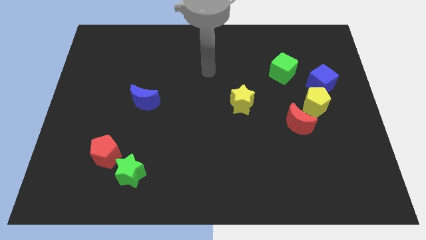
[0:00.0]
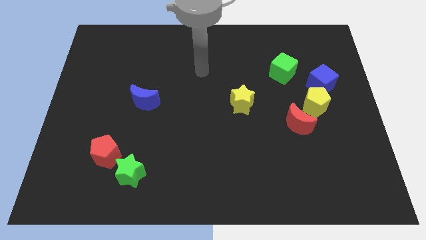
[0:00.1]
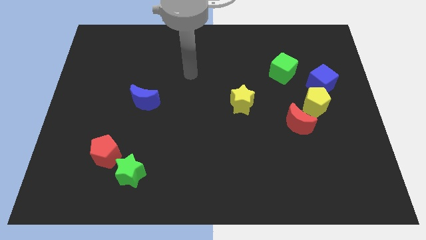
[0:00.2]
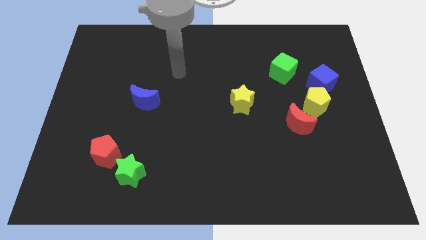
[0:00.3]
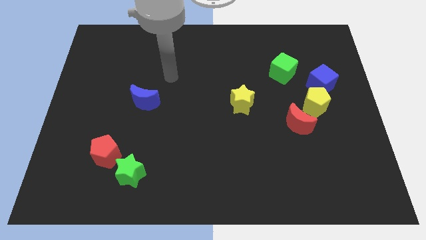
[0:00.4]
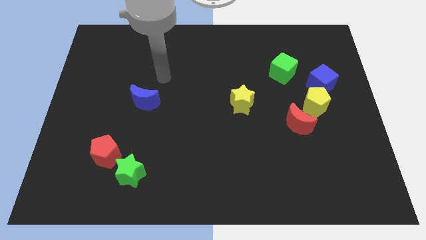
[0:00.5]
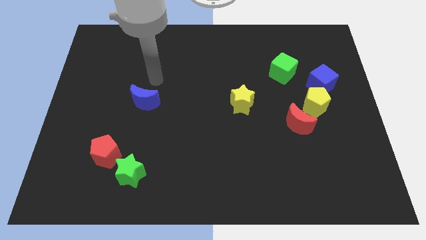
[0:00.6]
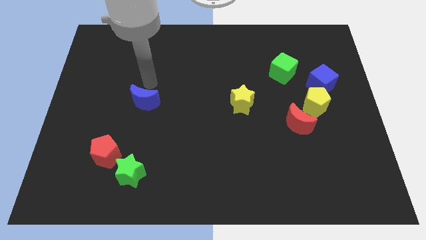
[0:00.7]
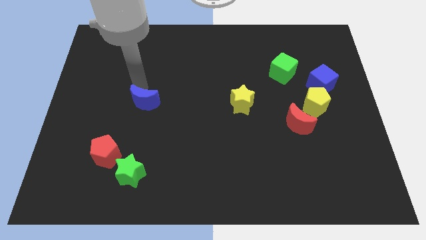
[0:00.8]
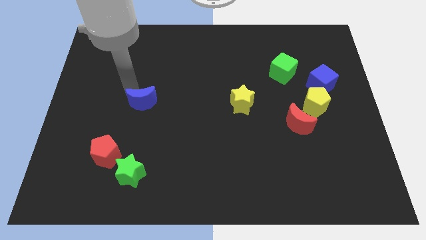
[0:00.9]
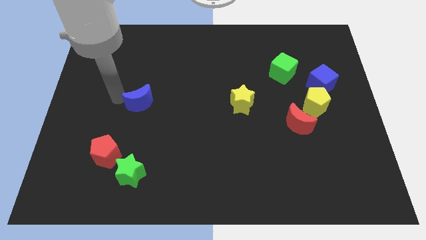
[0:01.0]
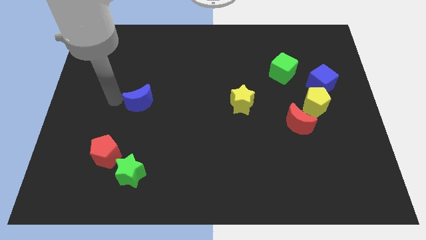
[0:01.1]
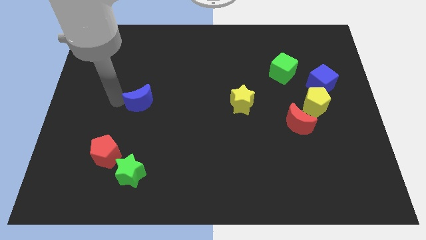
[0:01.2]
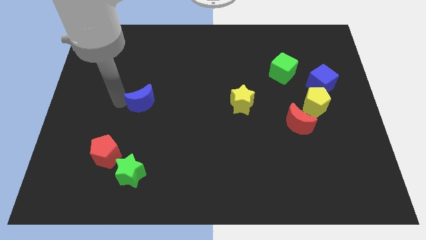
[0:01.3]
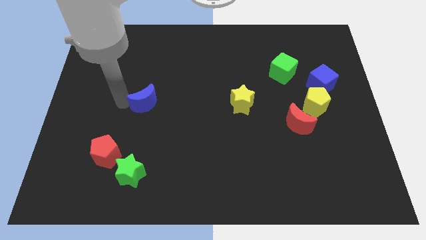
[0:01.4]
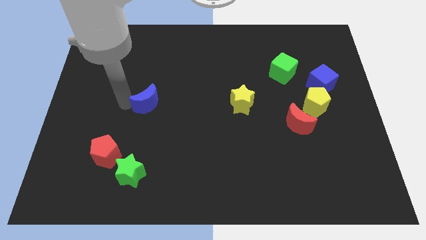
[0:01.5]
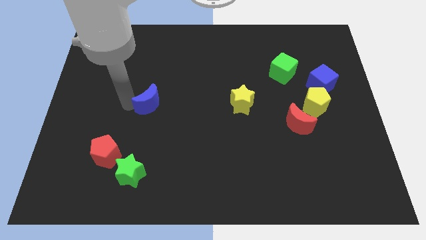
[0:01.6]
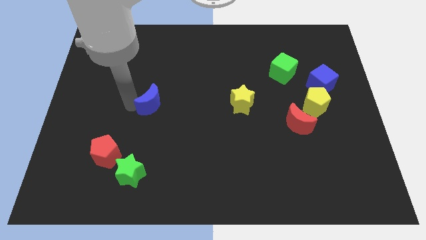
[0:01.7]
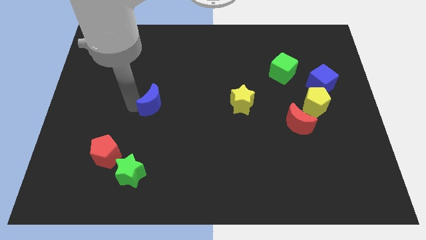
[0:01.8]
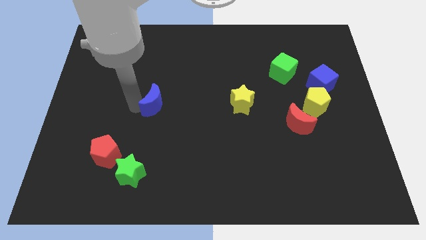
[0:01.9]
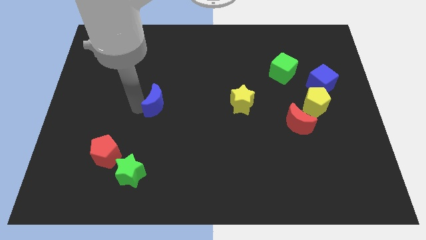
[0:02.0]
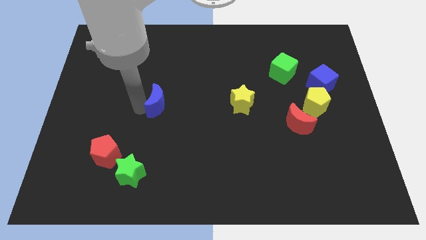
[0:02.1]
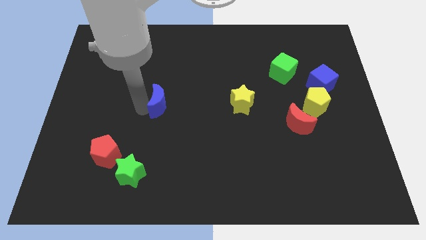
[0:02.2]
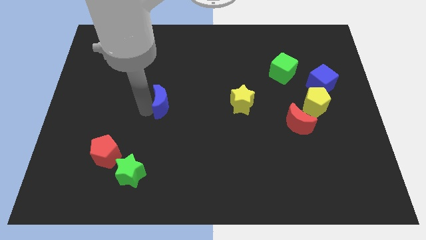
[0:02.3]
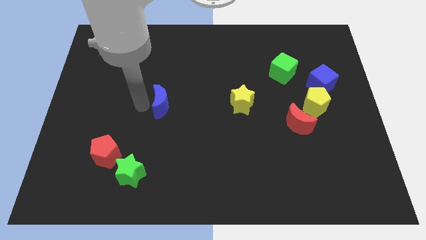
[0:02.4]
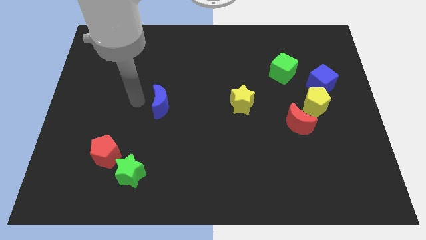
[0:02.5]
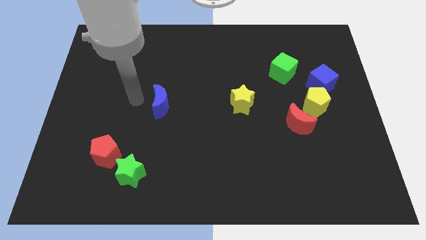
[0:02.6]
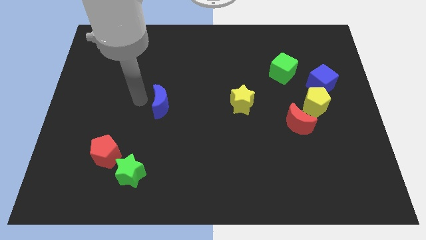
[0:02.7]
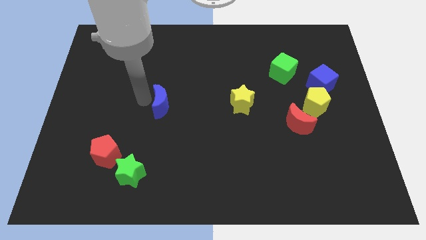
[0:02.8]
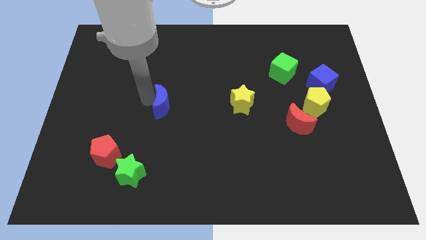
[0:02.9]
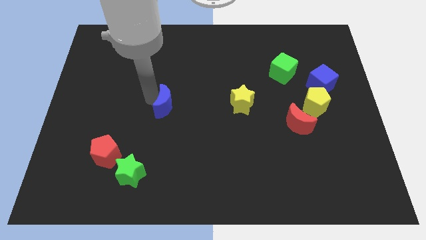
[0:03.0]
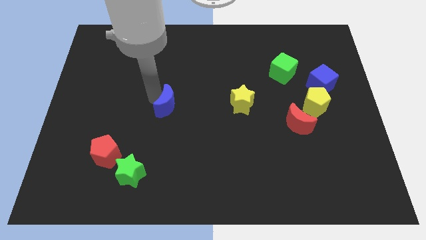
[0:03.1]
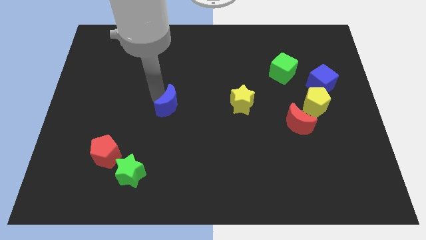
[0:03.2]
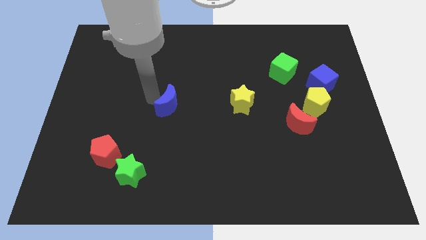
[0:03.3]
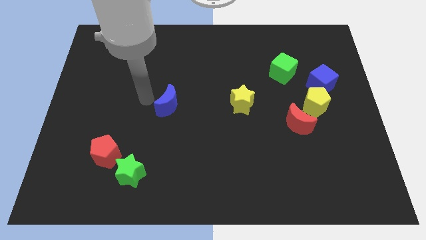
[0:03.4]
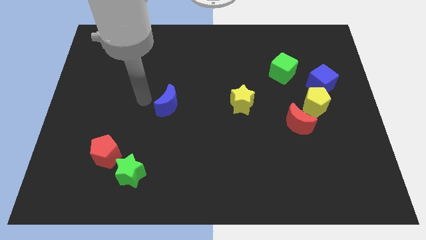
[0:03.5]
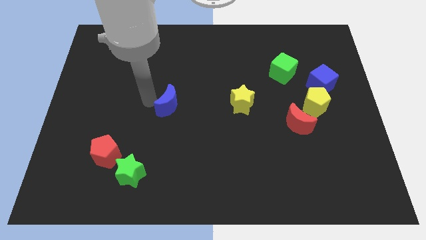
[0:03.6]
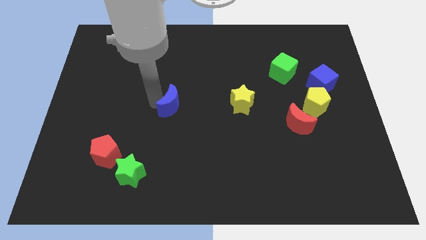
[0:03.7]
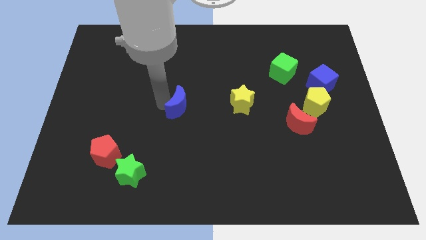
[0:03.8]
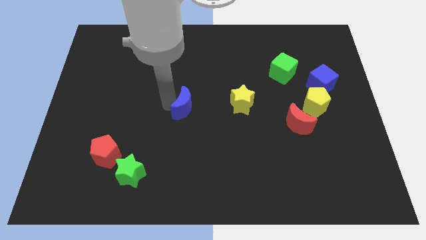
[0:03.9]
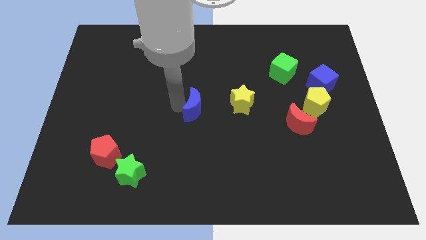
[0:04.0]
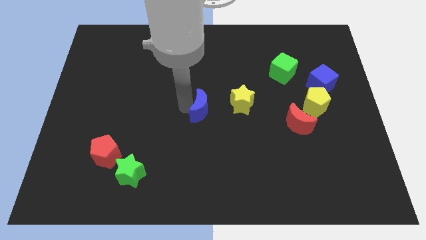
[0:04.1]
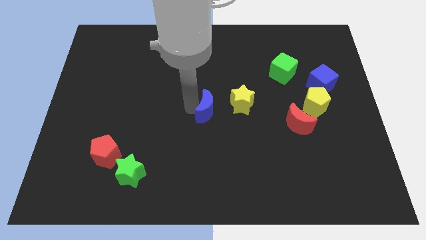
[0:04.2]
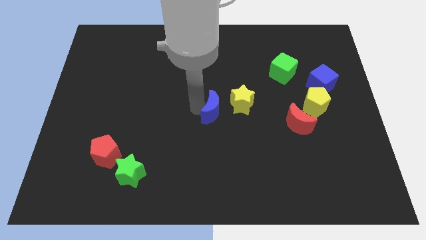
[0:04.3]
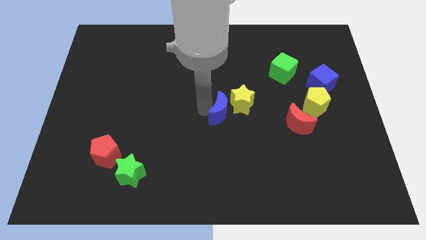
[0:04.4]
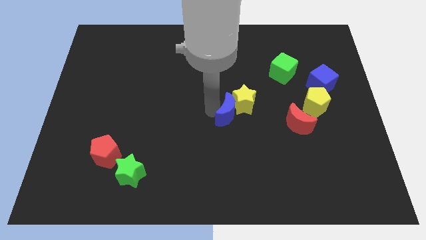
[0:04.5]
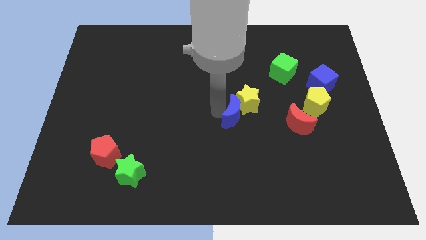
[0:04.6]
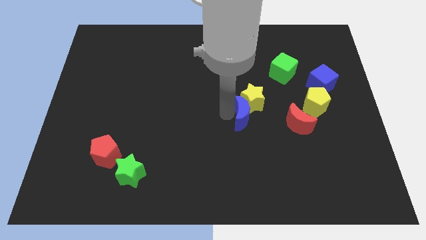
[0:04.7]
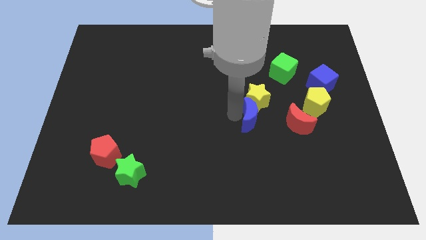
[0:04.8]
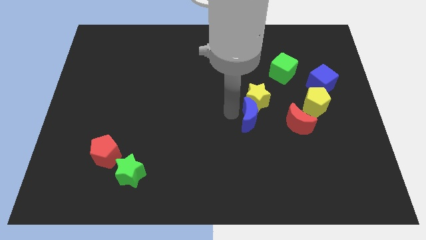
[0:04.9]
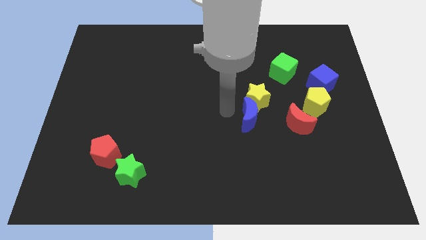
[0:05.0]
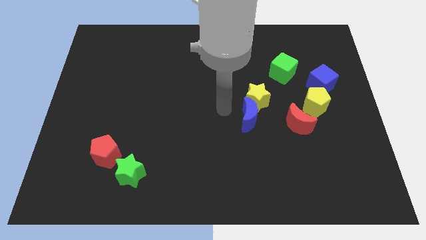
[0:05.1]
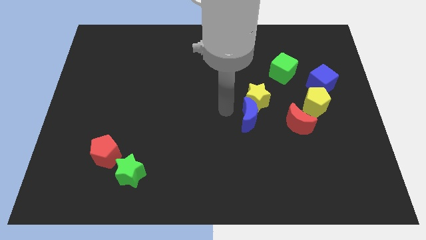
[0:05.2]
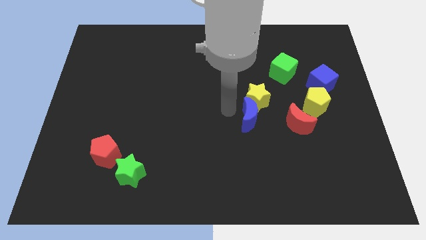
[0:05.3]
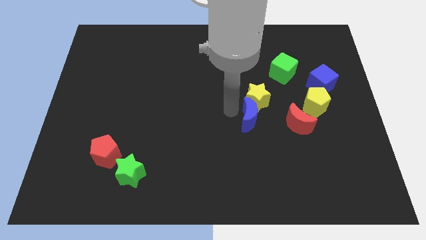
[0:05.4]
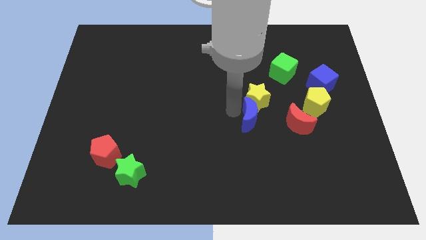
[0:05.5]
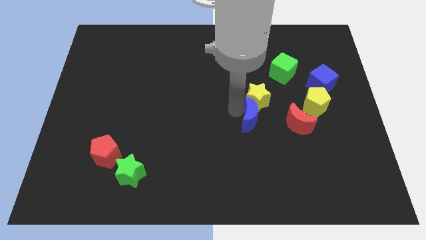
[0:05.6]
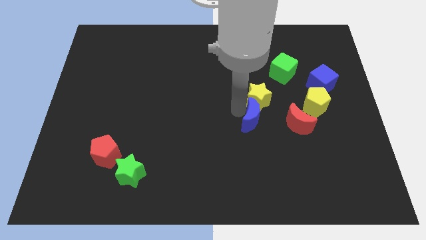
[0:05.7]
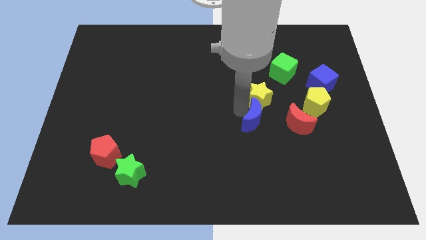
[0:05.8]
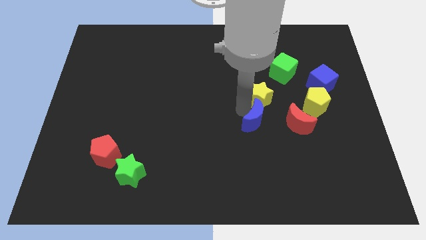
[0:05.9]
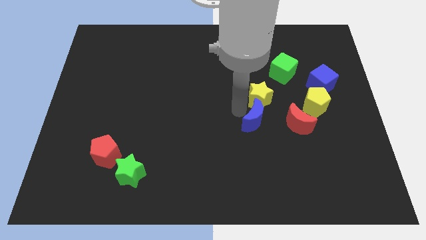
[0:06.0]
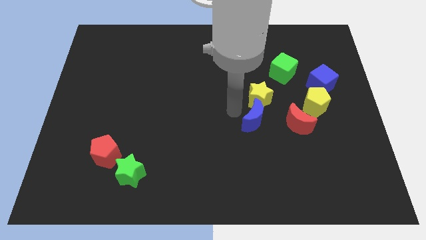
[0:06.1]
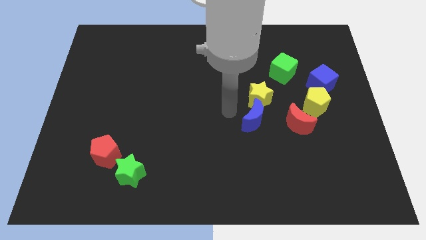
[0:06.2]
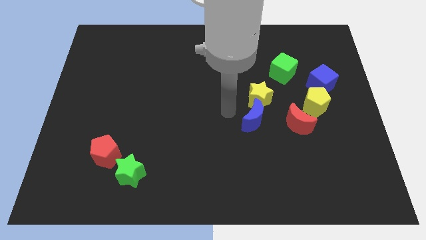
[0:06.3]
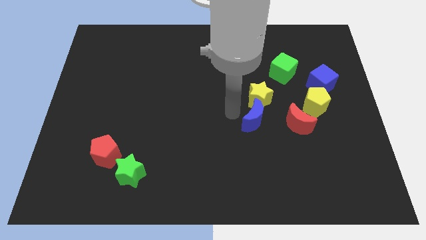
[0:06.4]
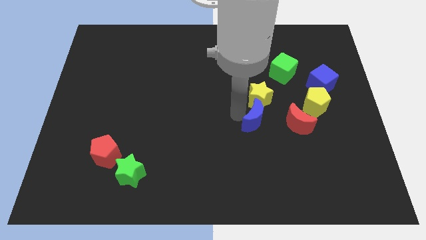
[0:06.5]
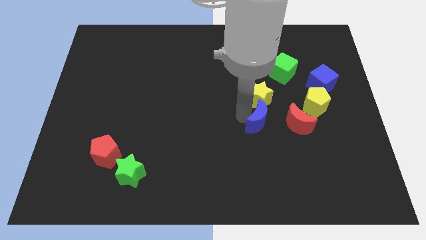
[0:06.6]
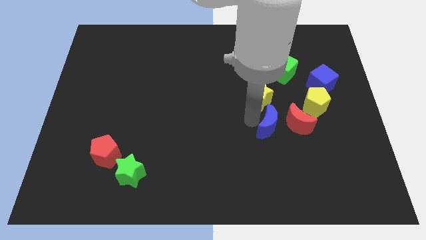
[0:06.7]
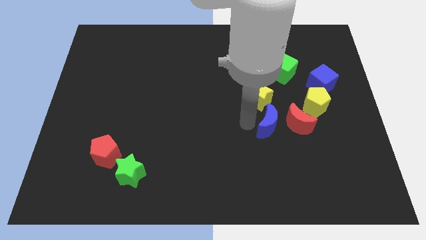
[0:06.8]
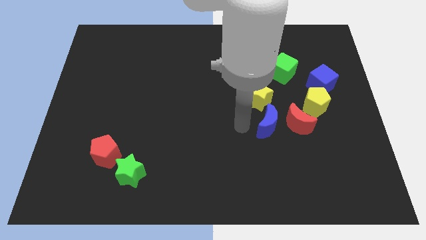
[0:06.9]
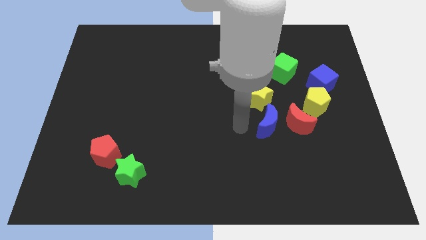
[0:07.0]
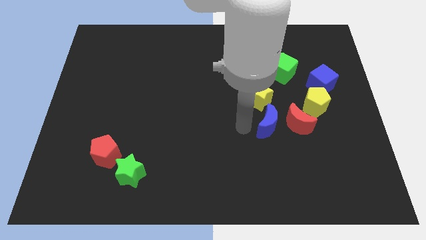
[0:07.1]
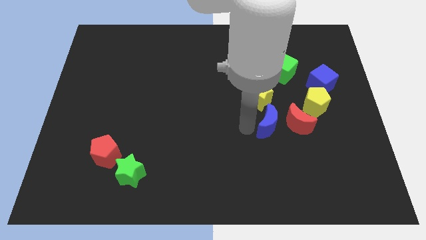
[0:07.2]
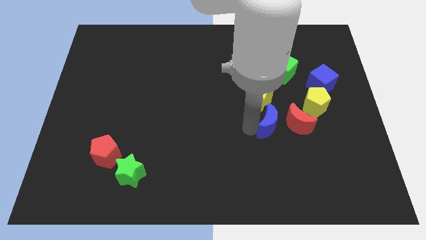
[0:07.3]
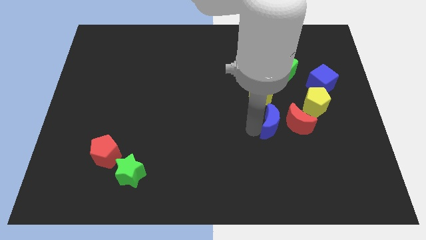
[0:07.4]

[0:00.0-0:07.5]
put the blue moon to the red moon

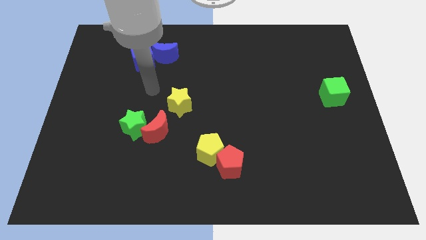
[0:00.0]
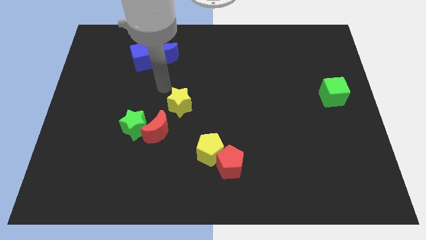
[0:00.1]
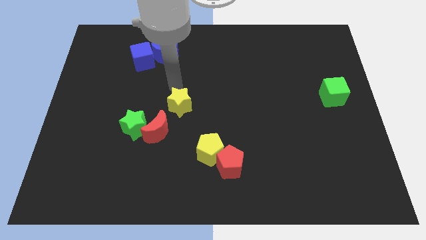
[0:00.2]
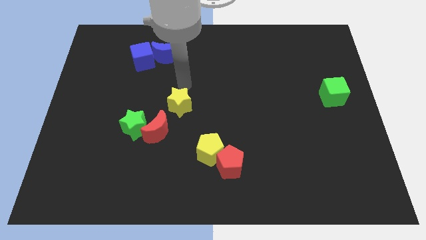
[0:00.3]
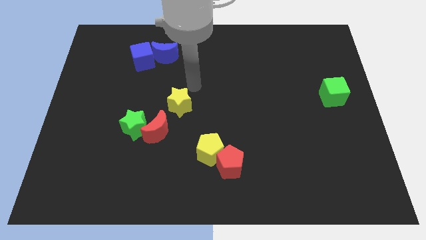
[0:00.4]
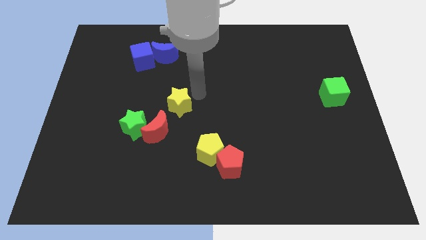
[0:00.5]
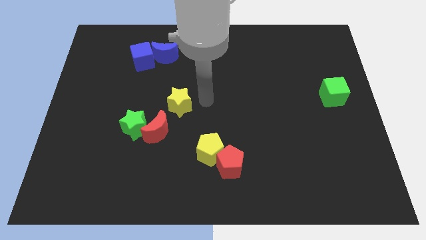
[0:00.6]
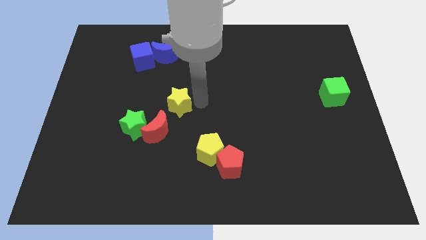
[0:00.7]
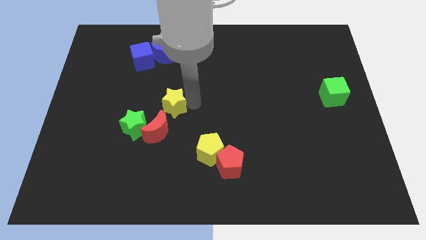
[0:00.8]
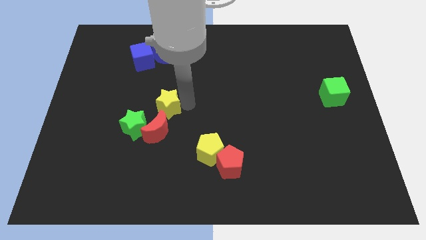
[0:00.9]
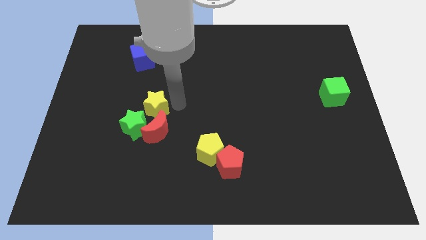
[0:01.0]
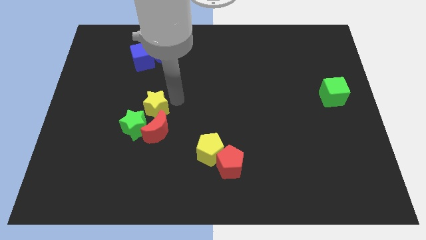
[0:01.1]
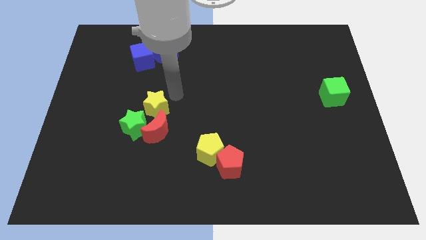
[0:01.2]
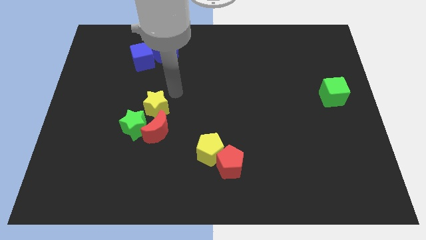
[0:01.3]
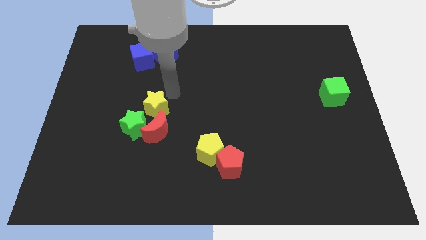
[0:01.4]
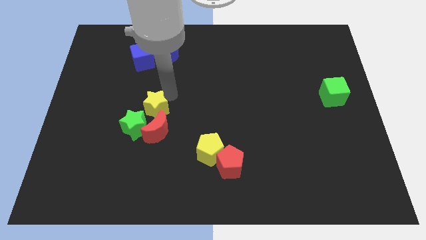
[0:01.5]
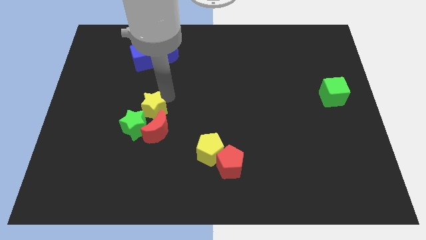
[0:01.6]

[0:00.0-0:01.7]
push the yellow star close to the green star
